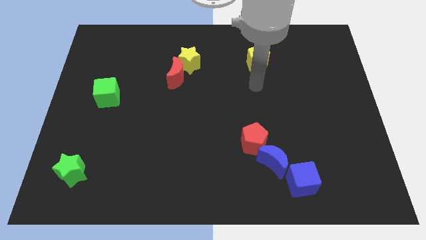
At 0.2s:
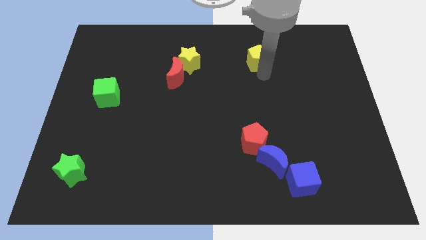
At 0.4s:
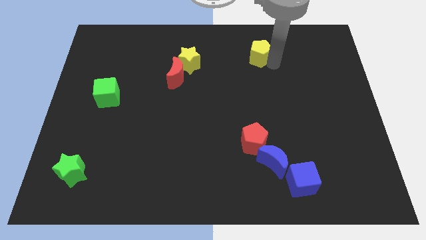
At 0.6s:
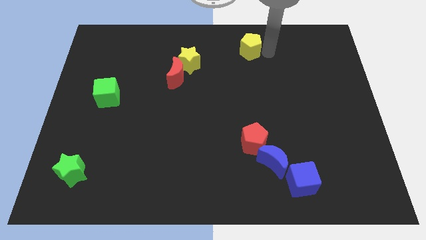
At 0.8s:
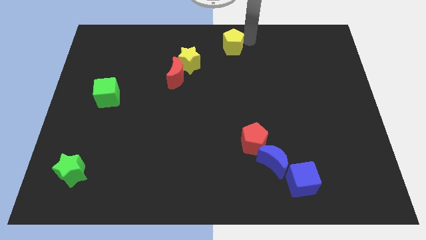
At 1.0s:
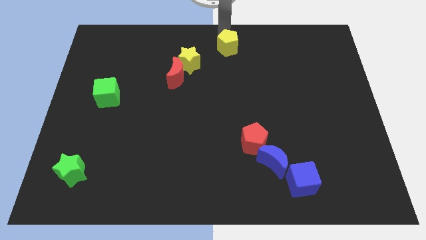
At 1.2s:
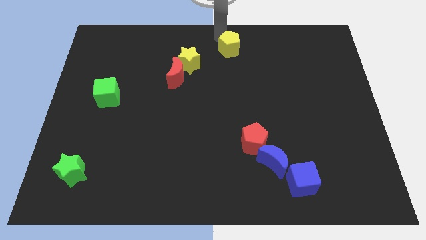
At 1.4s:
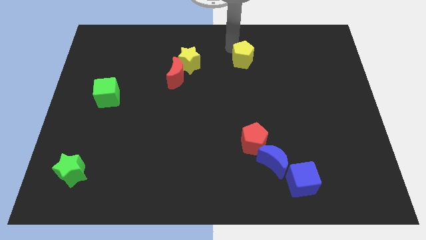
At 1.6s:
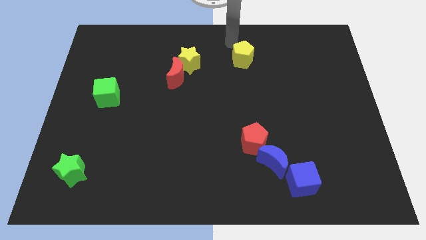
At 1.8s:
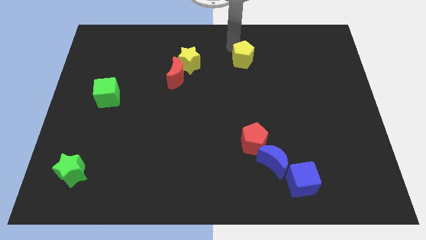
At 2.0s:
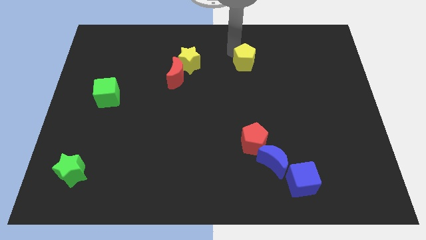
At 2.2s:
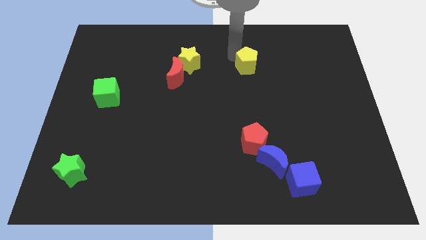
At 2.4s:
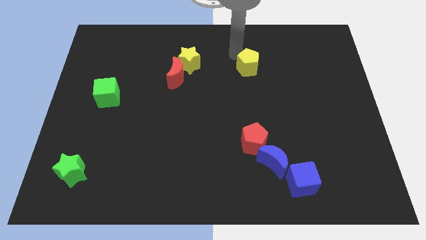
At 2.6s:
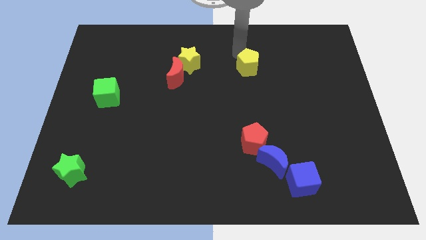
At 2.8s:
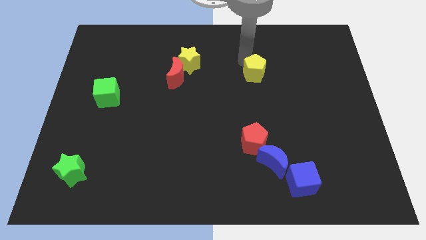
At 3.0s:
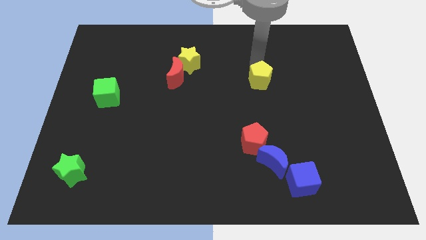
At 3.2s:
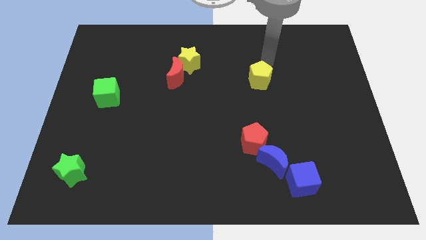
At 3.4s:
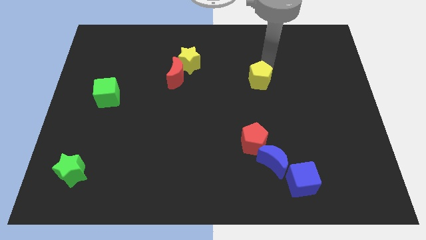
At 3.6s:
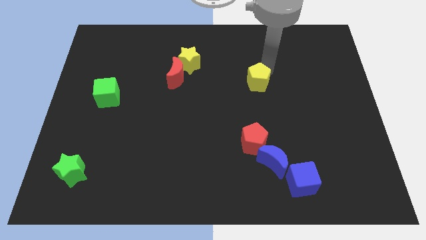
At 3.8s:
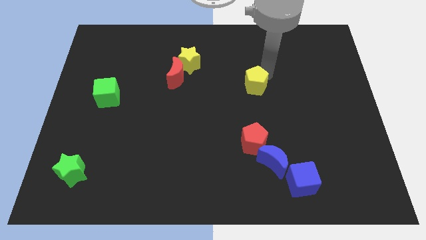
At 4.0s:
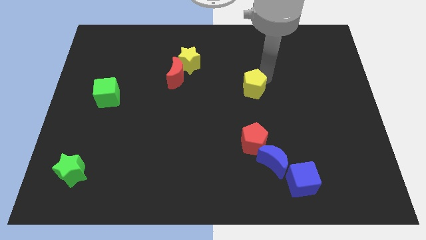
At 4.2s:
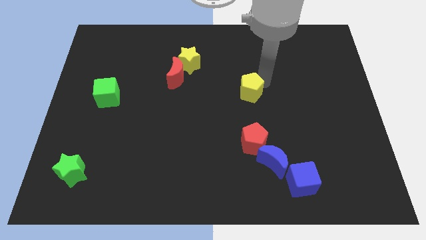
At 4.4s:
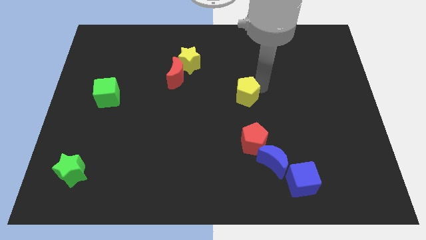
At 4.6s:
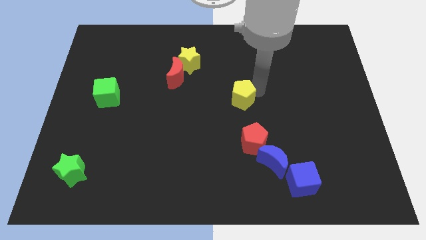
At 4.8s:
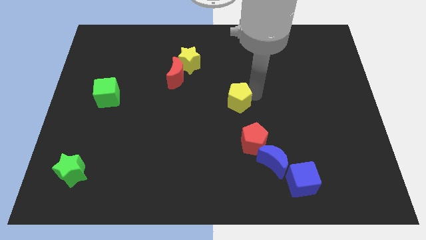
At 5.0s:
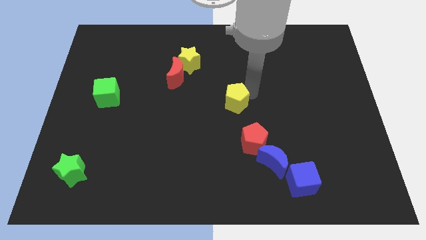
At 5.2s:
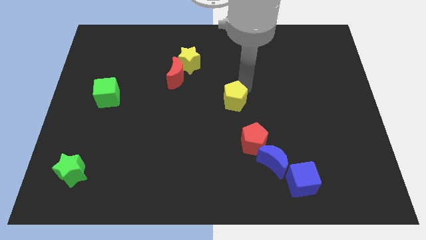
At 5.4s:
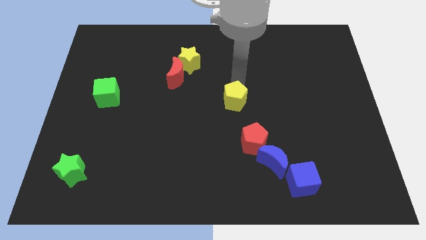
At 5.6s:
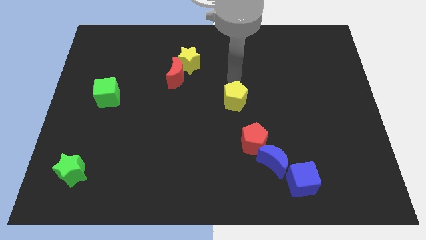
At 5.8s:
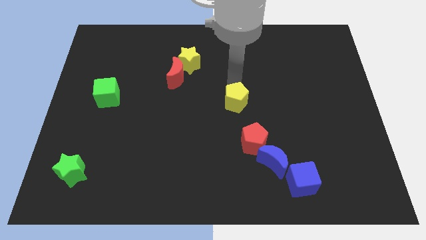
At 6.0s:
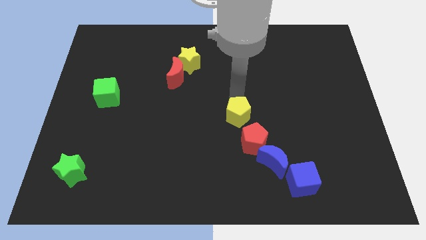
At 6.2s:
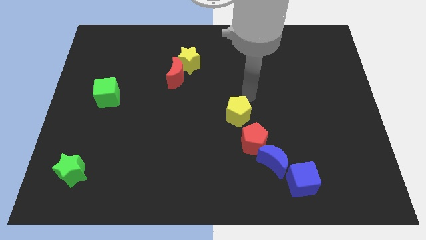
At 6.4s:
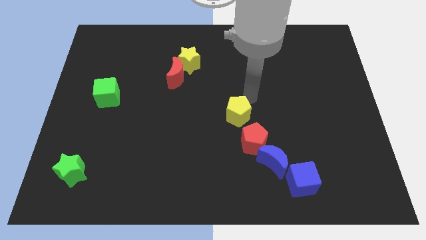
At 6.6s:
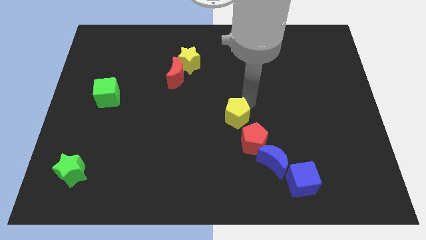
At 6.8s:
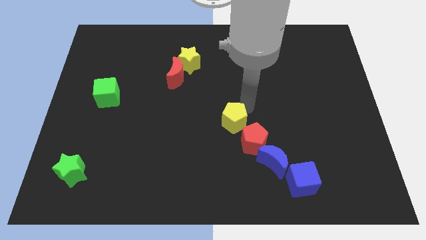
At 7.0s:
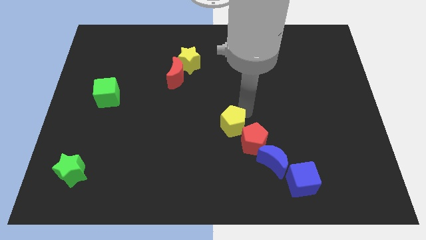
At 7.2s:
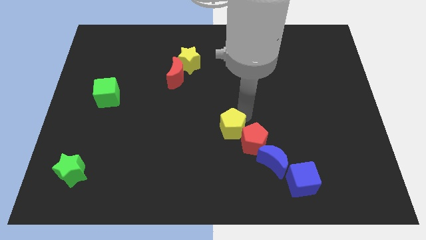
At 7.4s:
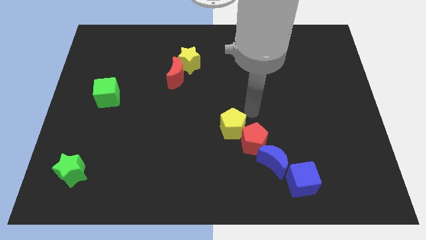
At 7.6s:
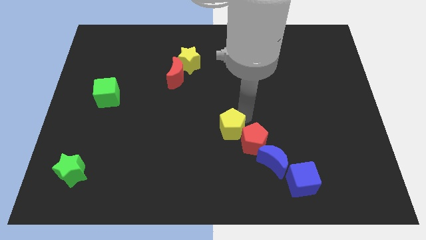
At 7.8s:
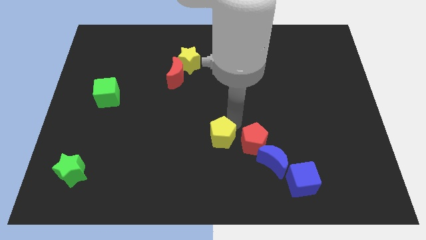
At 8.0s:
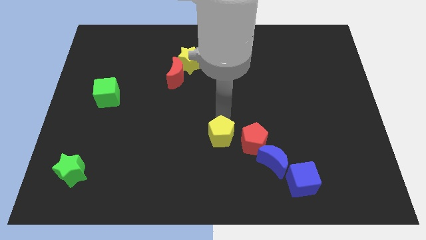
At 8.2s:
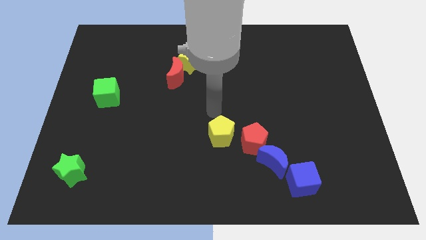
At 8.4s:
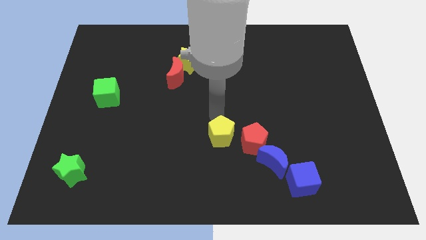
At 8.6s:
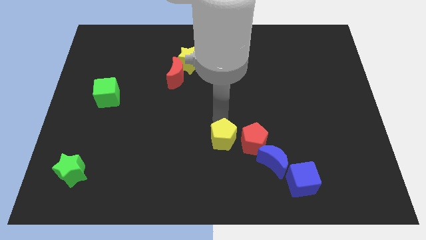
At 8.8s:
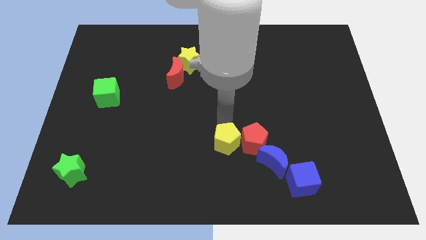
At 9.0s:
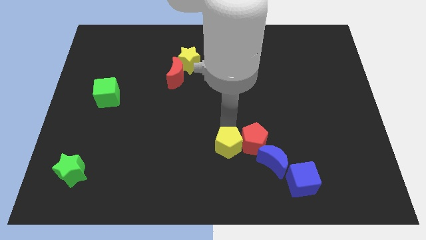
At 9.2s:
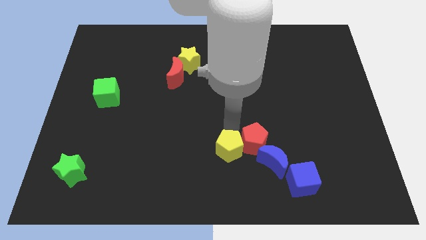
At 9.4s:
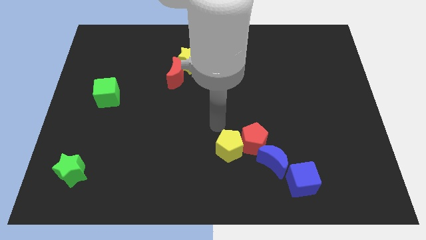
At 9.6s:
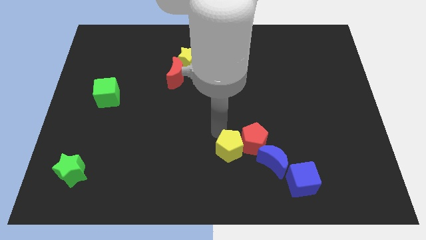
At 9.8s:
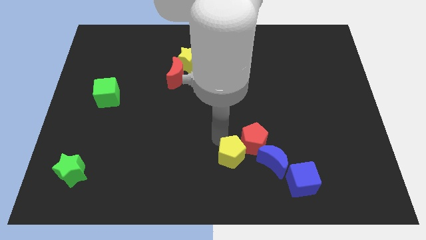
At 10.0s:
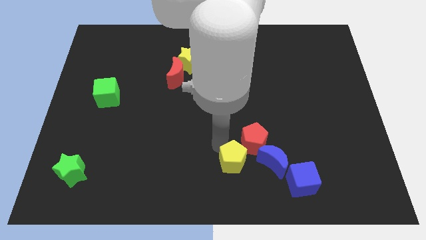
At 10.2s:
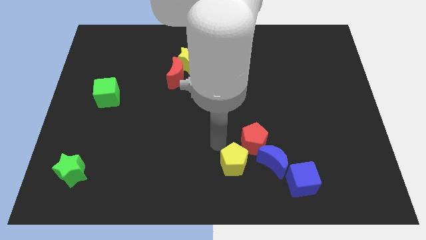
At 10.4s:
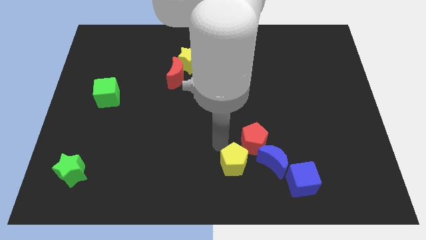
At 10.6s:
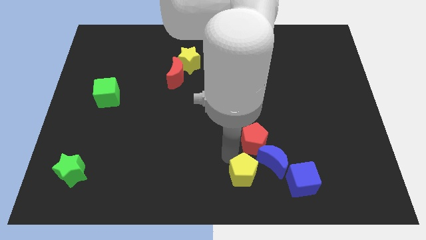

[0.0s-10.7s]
slide the yellow pentagon to the bottom left side of the blue moon

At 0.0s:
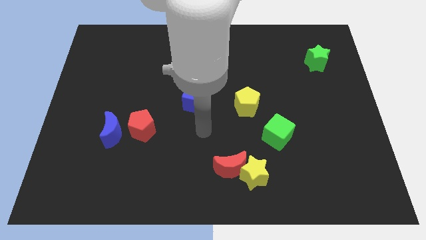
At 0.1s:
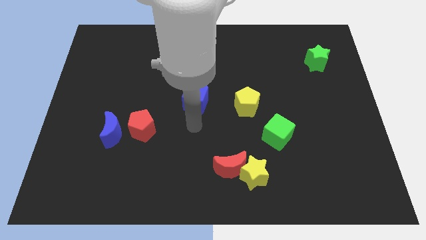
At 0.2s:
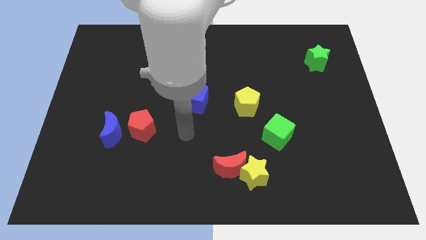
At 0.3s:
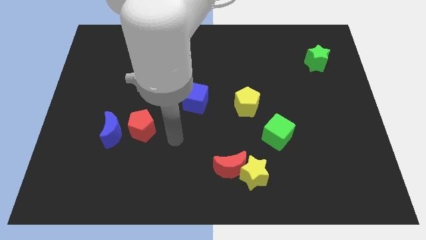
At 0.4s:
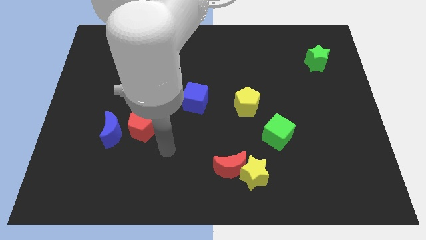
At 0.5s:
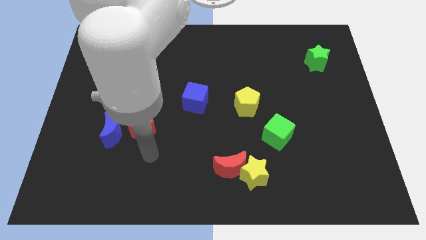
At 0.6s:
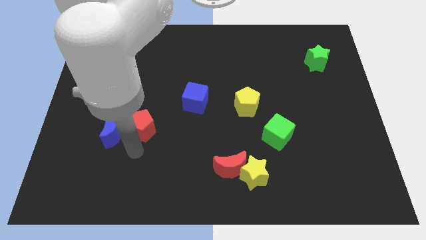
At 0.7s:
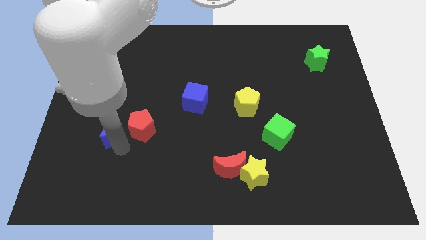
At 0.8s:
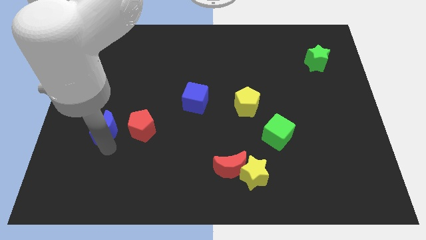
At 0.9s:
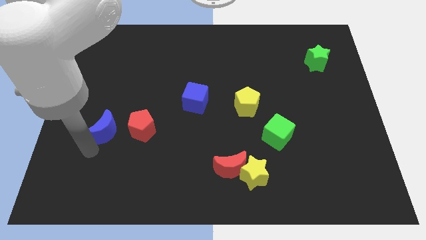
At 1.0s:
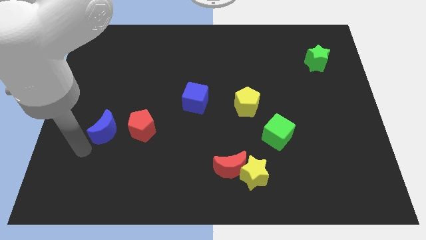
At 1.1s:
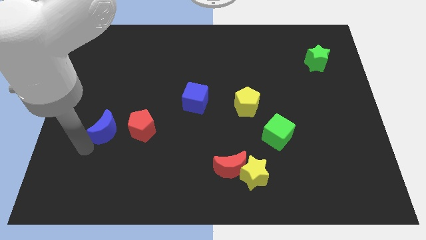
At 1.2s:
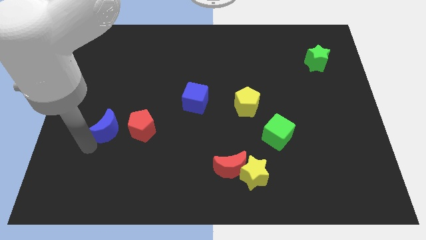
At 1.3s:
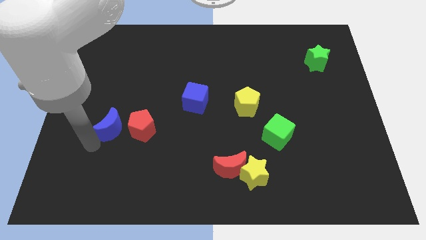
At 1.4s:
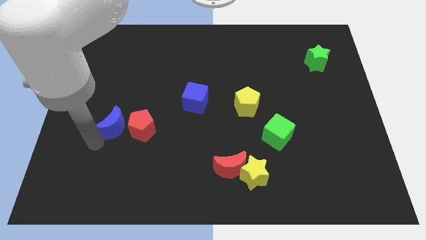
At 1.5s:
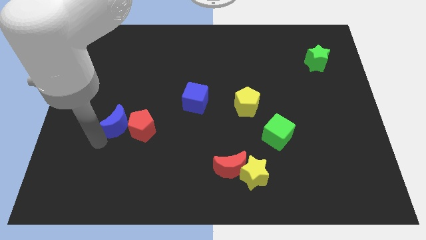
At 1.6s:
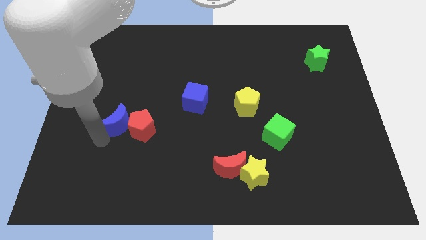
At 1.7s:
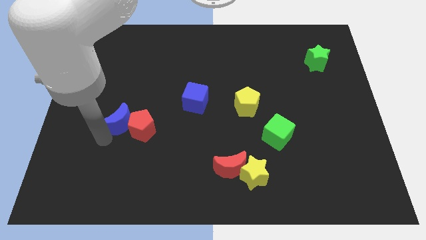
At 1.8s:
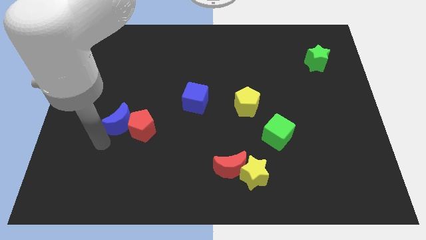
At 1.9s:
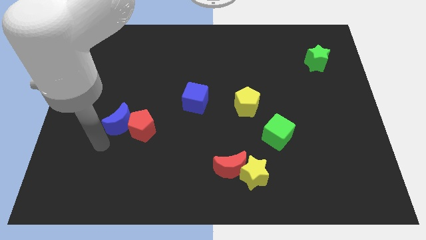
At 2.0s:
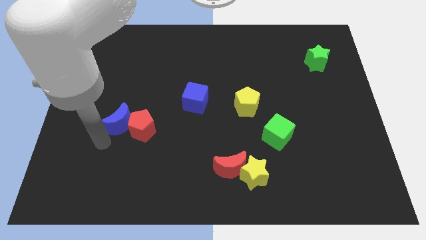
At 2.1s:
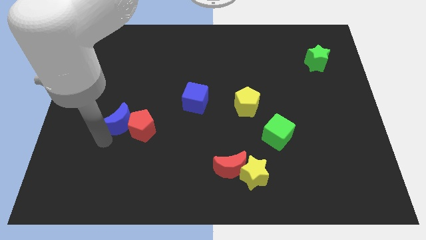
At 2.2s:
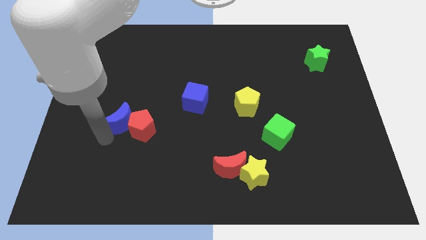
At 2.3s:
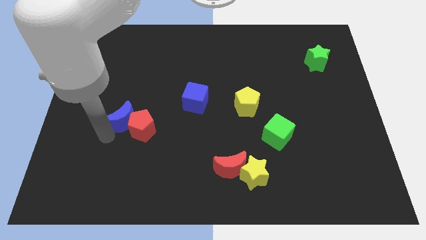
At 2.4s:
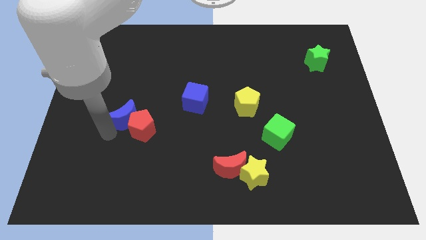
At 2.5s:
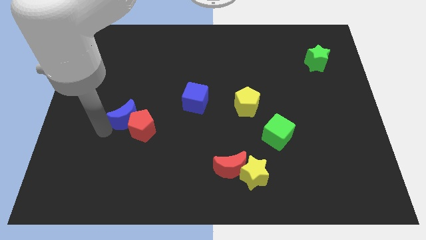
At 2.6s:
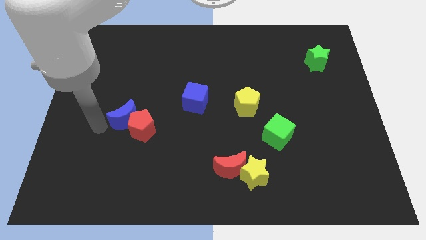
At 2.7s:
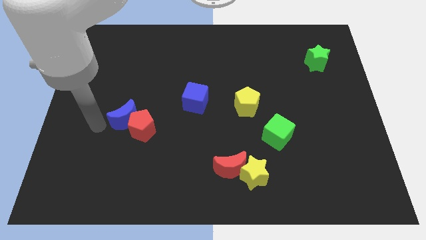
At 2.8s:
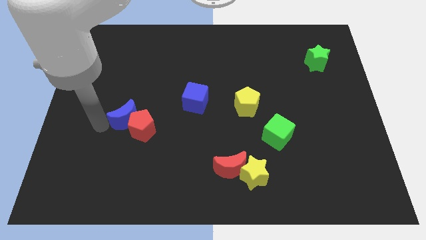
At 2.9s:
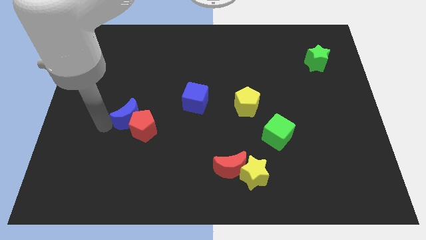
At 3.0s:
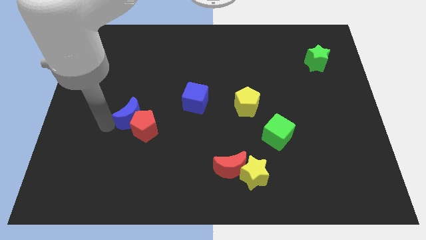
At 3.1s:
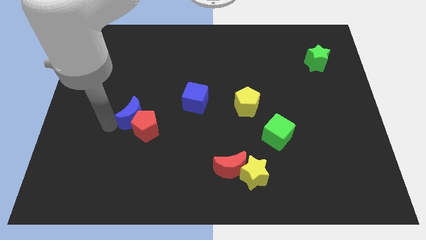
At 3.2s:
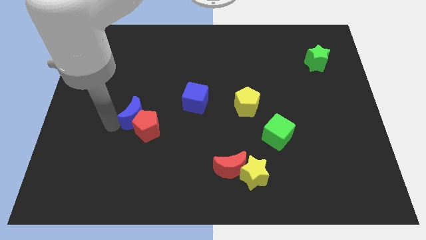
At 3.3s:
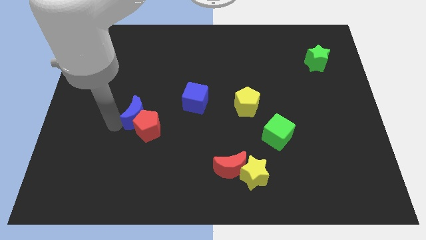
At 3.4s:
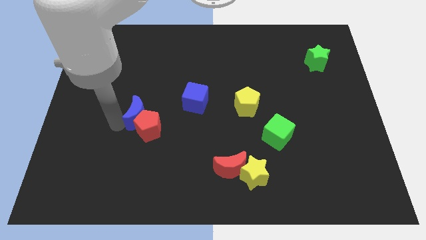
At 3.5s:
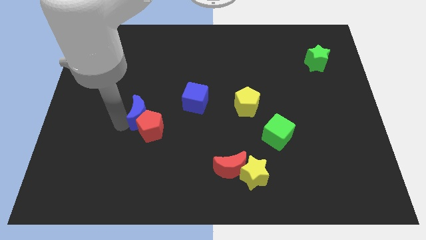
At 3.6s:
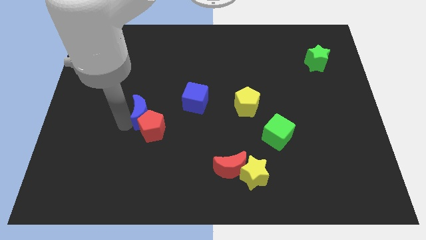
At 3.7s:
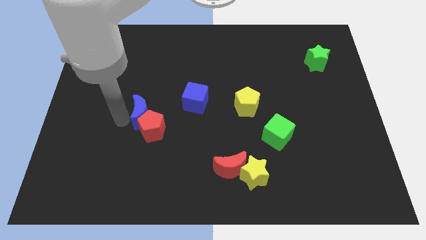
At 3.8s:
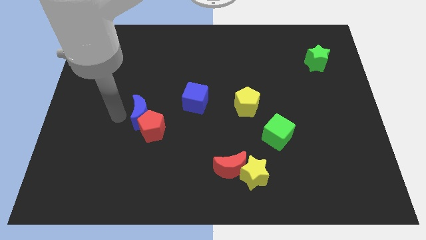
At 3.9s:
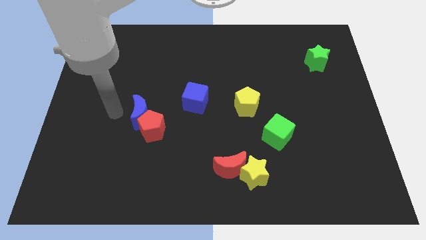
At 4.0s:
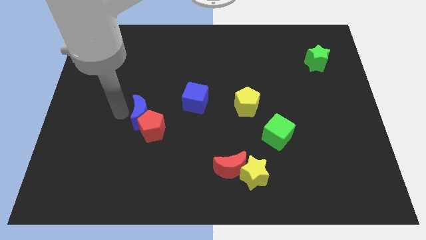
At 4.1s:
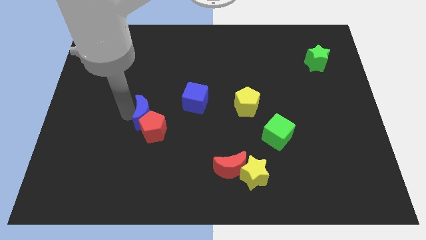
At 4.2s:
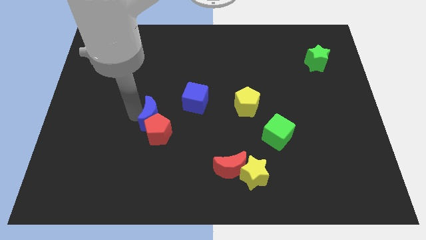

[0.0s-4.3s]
move the blue moon diagonally down and to the left of the blue cube
